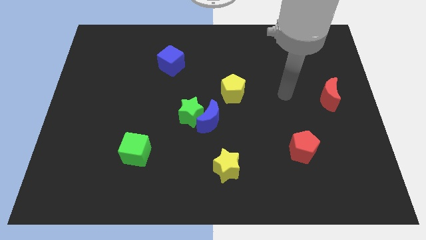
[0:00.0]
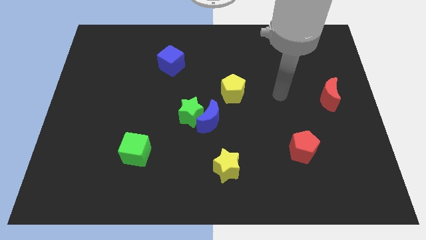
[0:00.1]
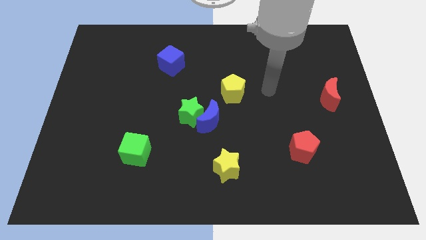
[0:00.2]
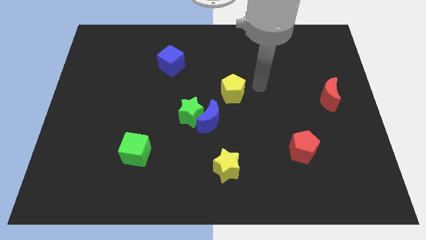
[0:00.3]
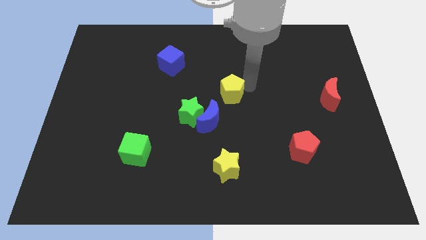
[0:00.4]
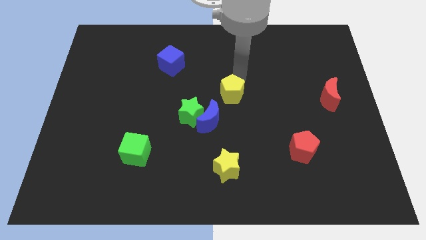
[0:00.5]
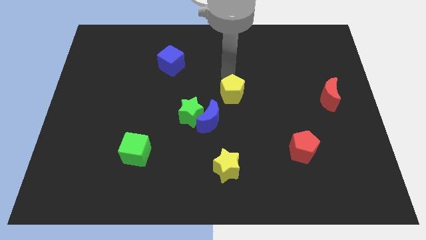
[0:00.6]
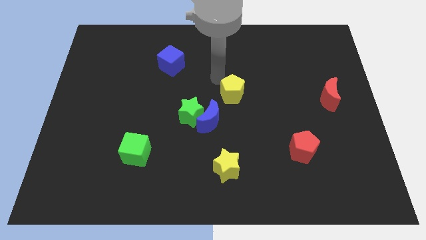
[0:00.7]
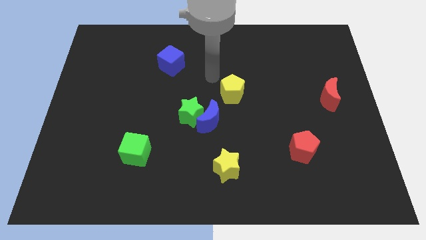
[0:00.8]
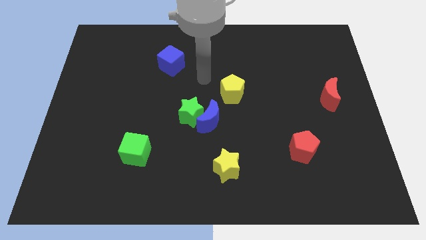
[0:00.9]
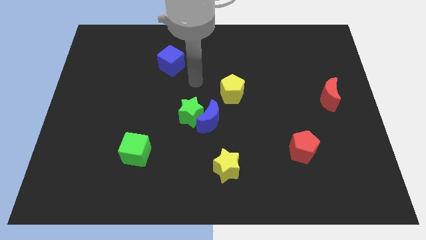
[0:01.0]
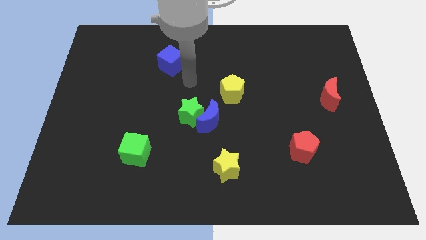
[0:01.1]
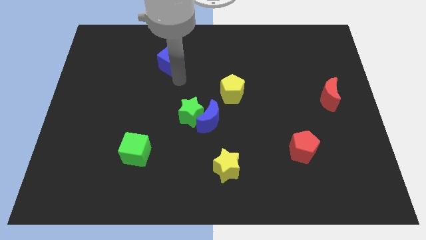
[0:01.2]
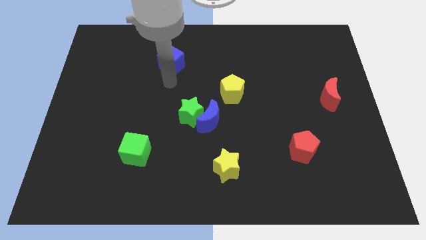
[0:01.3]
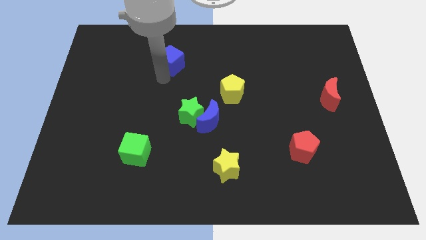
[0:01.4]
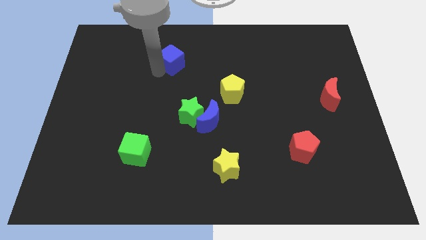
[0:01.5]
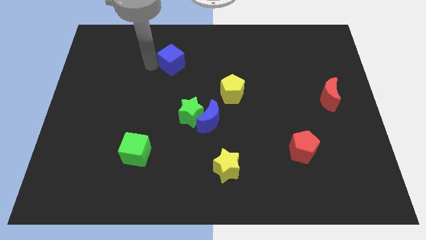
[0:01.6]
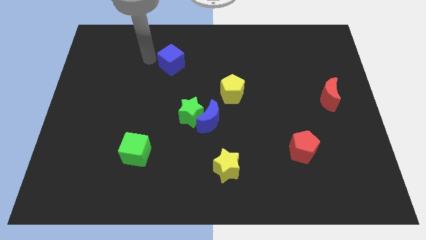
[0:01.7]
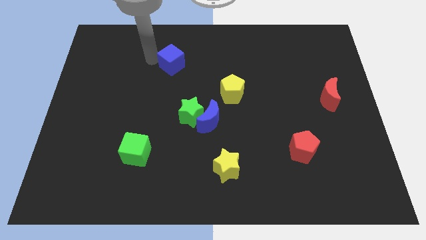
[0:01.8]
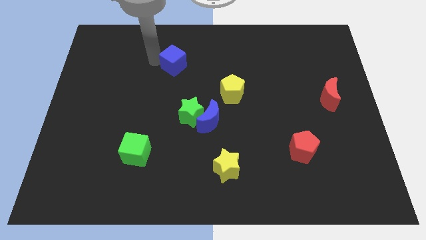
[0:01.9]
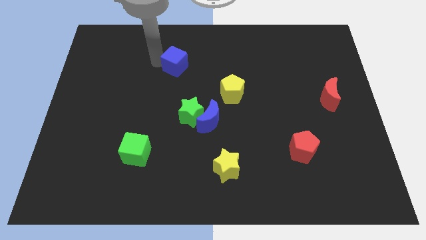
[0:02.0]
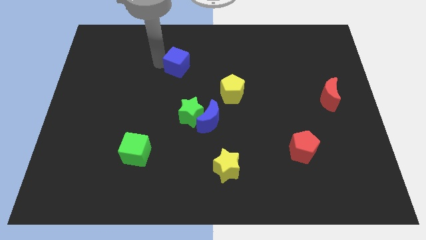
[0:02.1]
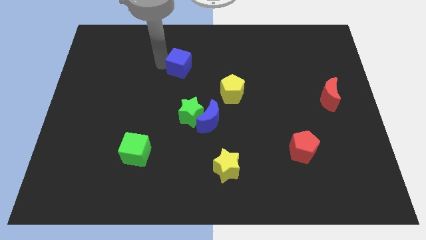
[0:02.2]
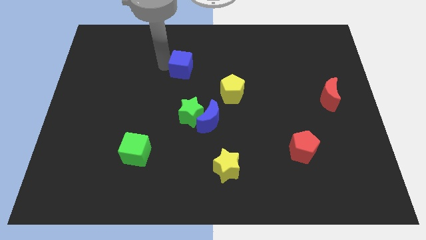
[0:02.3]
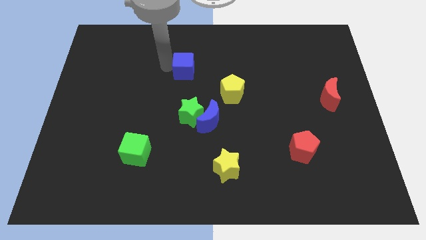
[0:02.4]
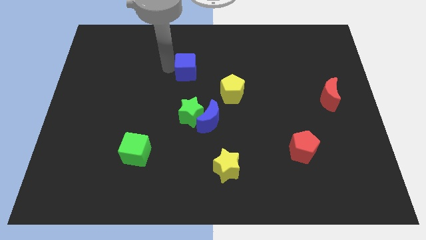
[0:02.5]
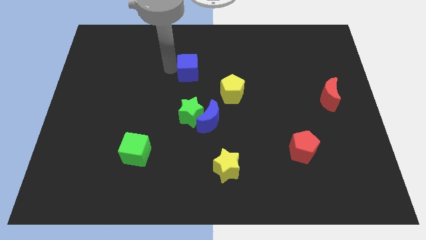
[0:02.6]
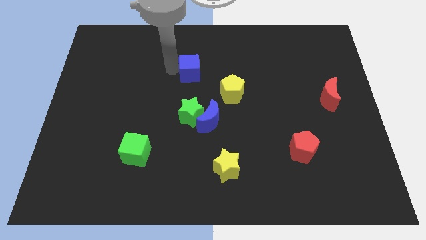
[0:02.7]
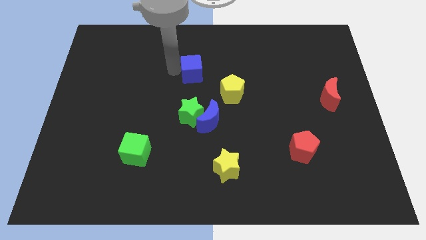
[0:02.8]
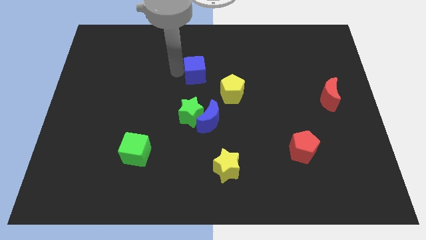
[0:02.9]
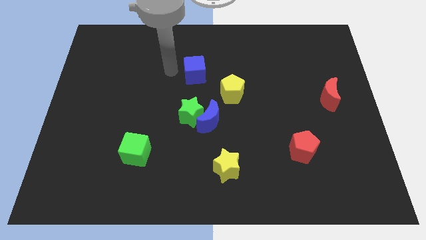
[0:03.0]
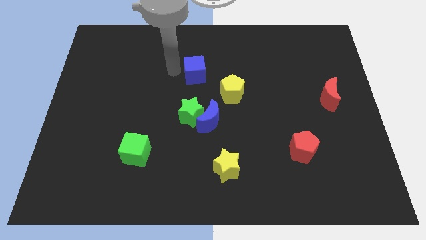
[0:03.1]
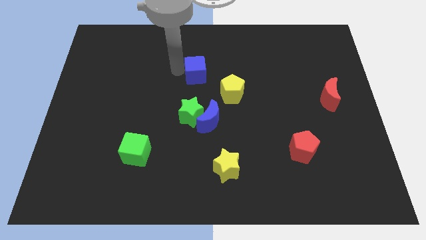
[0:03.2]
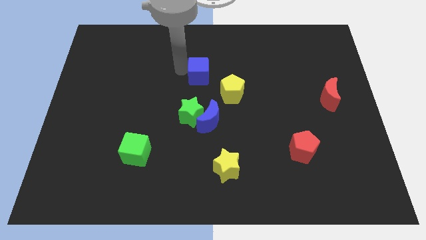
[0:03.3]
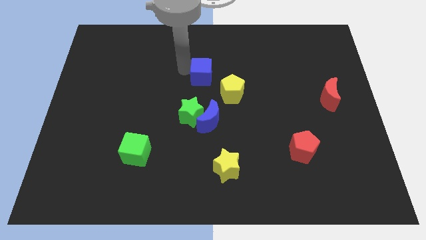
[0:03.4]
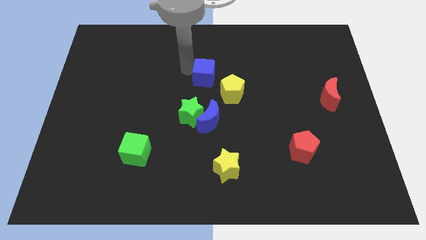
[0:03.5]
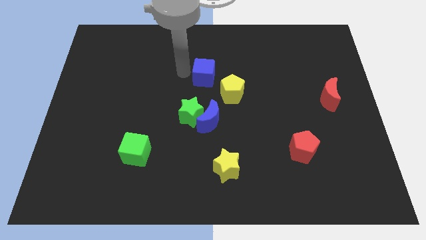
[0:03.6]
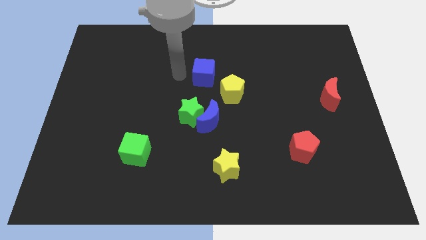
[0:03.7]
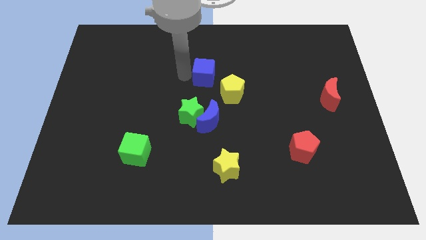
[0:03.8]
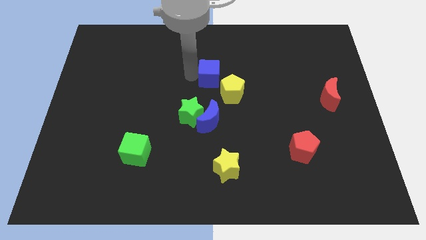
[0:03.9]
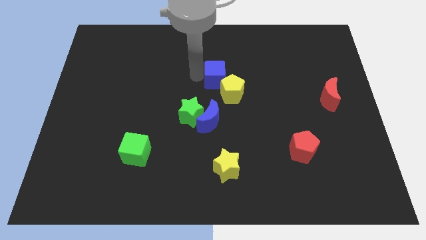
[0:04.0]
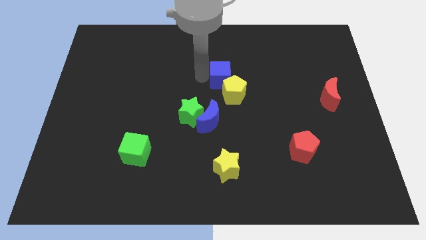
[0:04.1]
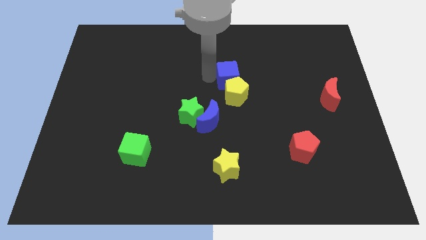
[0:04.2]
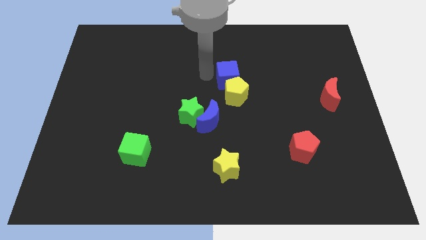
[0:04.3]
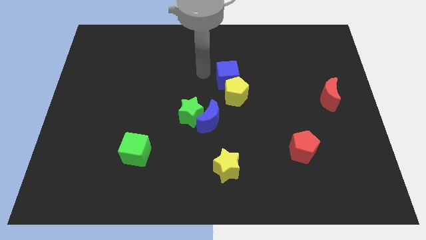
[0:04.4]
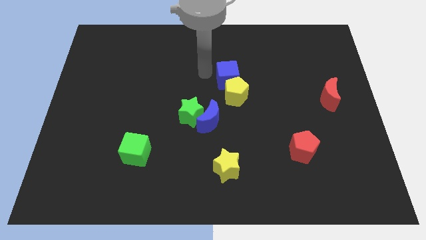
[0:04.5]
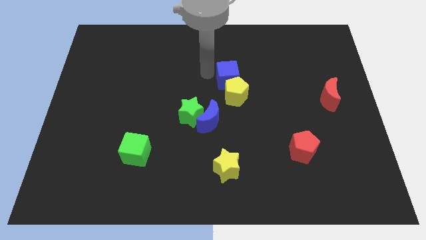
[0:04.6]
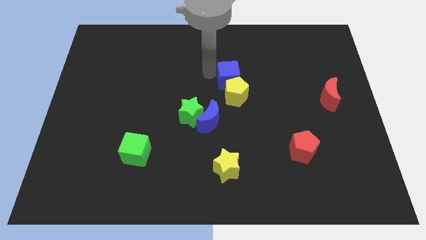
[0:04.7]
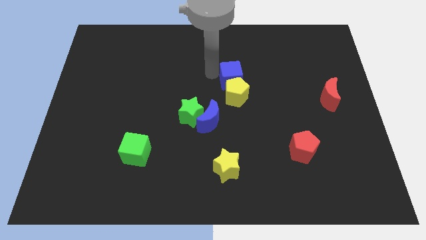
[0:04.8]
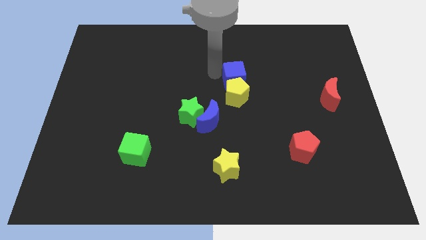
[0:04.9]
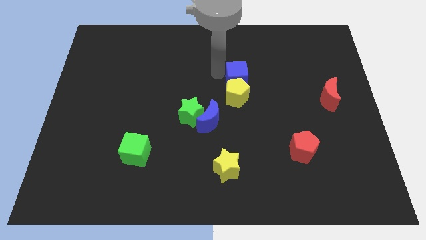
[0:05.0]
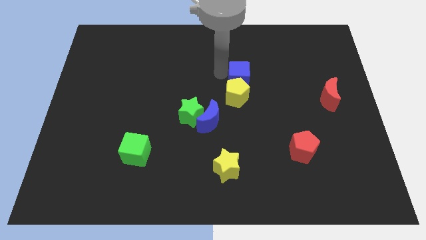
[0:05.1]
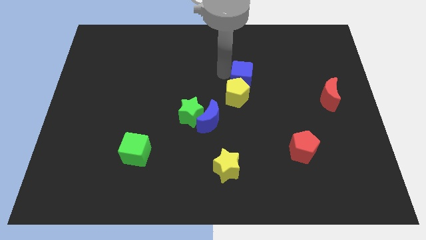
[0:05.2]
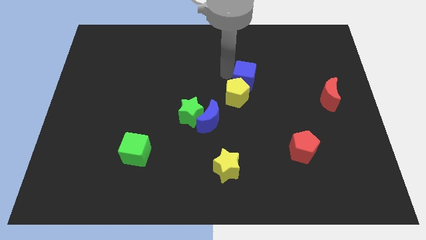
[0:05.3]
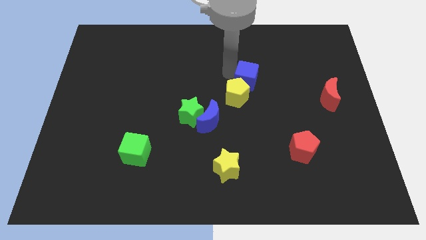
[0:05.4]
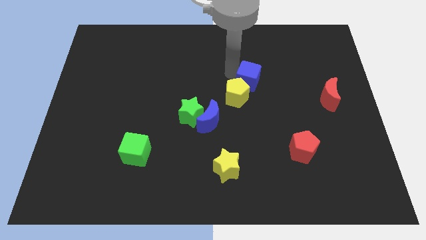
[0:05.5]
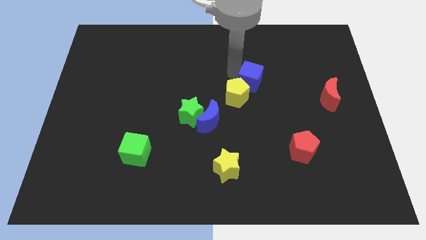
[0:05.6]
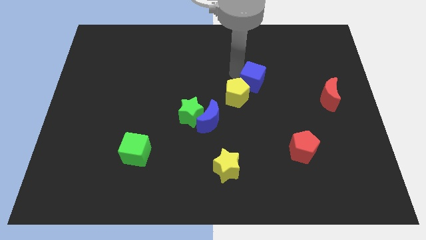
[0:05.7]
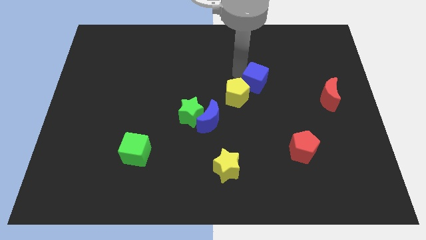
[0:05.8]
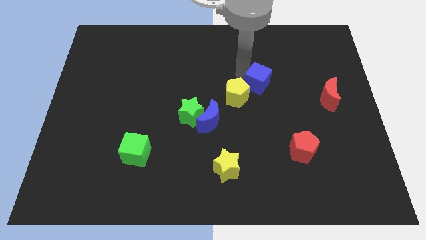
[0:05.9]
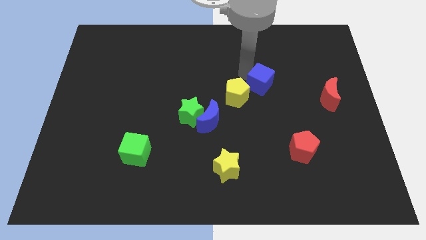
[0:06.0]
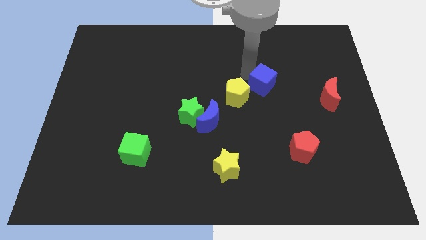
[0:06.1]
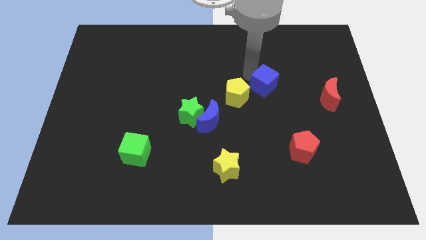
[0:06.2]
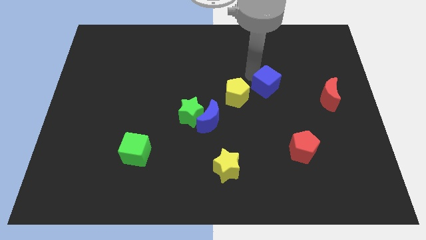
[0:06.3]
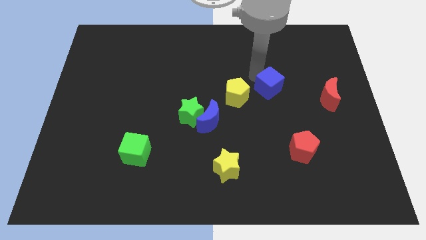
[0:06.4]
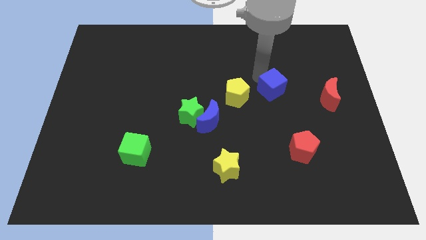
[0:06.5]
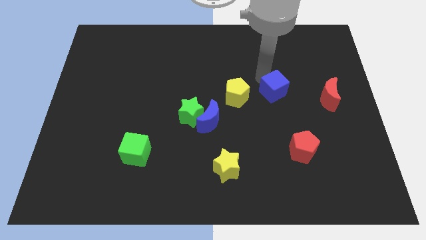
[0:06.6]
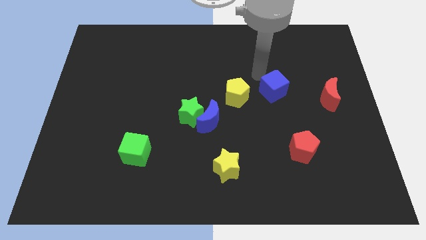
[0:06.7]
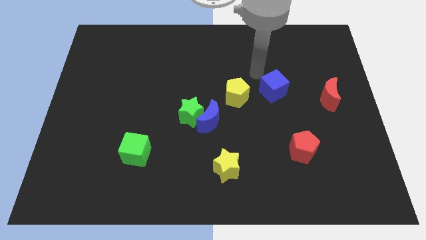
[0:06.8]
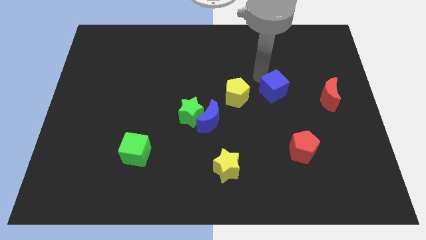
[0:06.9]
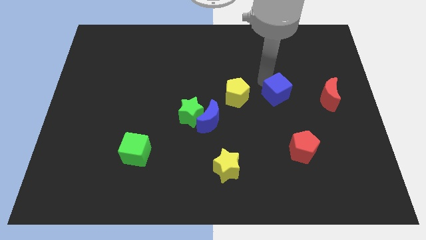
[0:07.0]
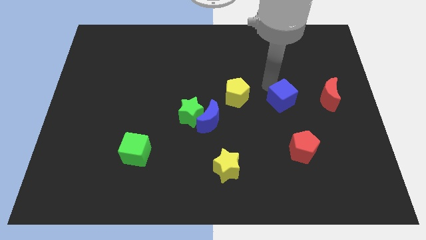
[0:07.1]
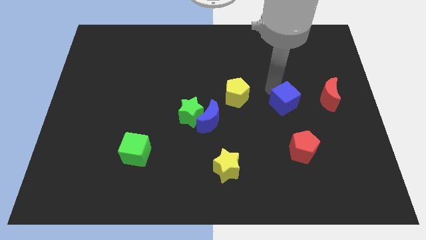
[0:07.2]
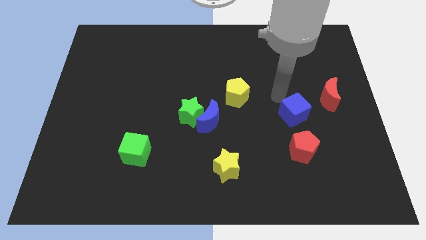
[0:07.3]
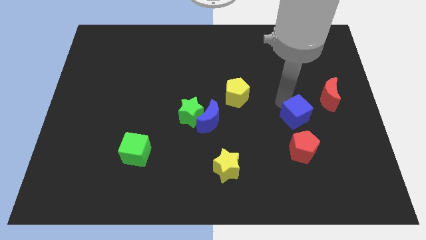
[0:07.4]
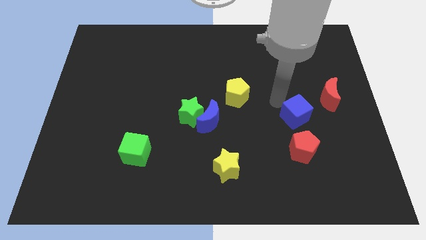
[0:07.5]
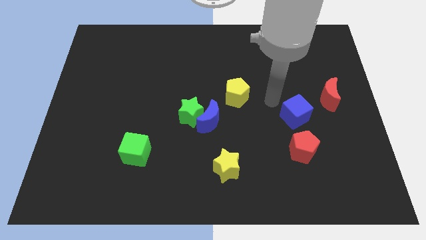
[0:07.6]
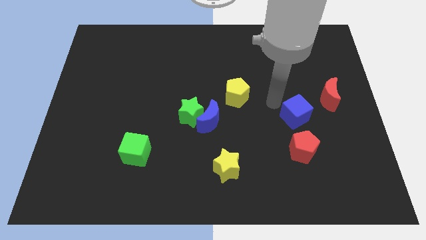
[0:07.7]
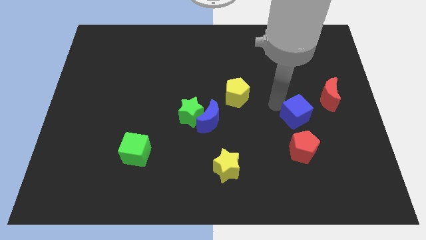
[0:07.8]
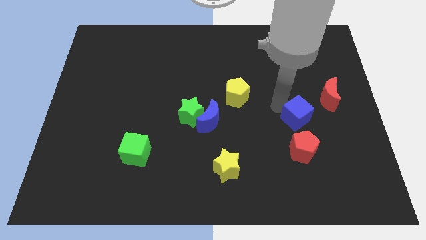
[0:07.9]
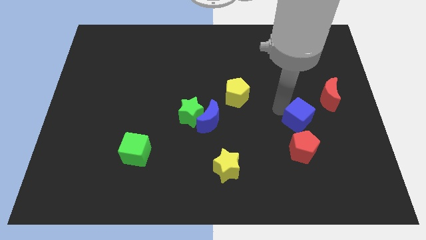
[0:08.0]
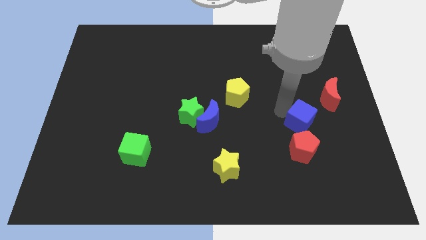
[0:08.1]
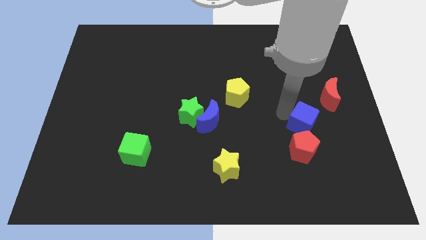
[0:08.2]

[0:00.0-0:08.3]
move the blue cube to the top right side of the red pentagon
